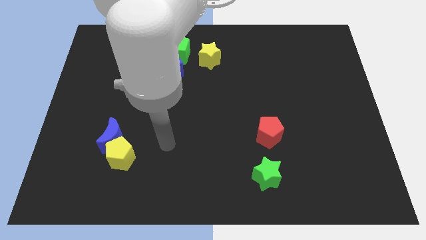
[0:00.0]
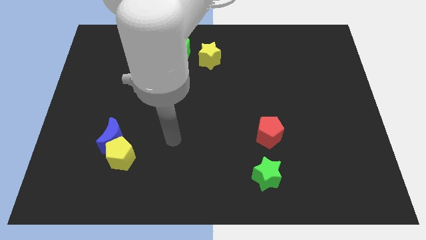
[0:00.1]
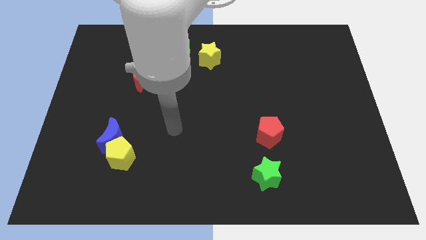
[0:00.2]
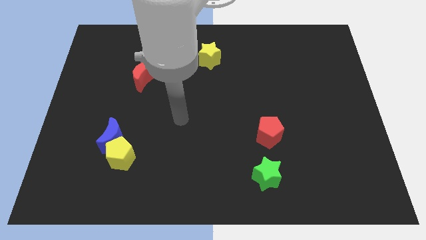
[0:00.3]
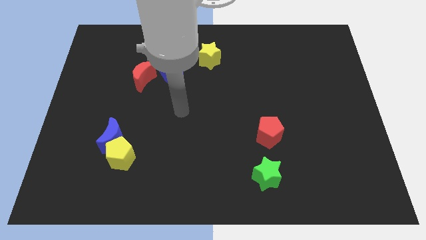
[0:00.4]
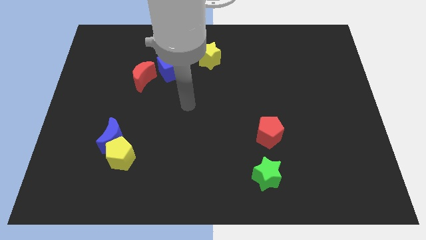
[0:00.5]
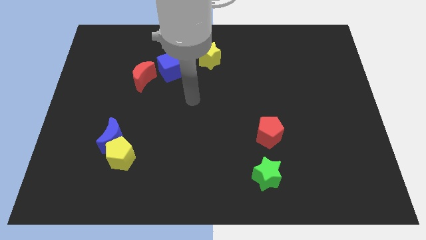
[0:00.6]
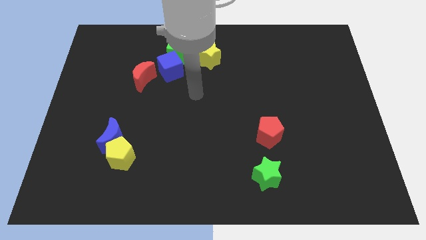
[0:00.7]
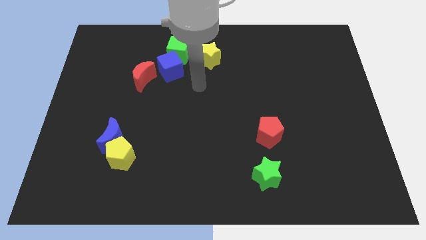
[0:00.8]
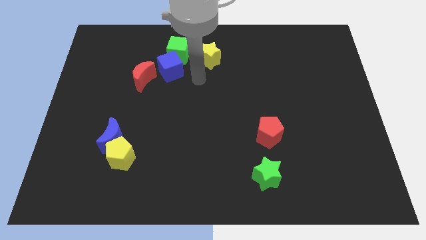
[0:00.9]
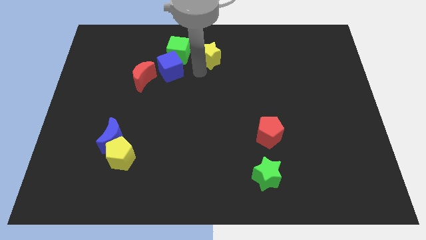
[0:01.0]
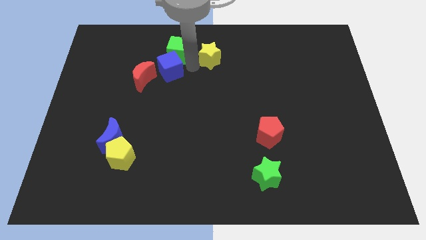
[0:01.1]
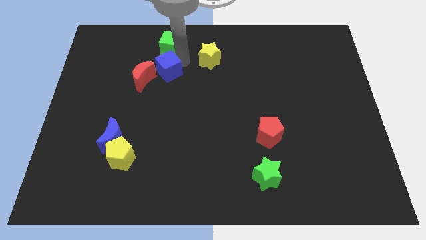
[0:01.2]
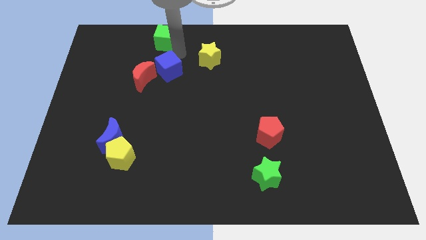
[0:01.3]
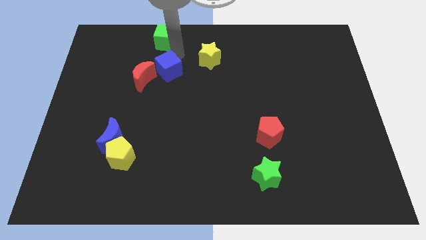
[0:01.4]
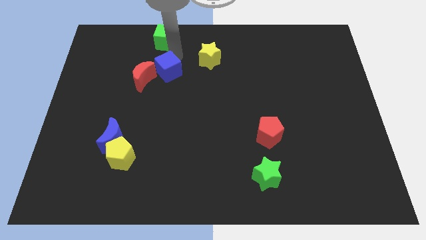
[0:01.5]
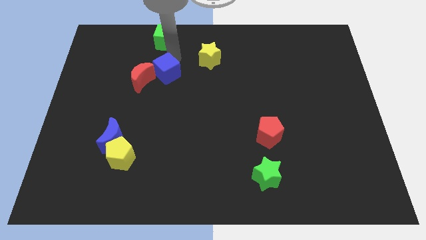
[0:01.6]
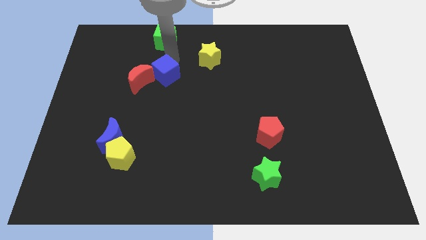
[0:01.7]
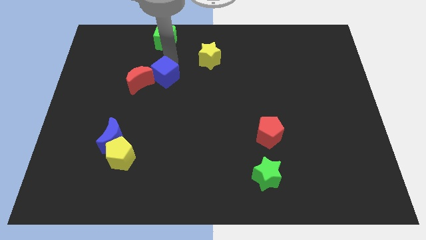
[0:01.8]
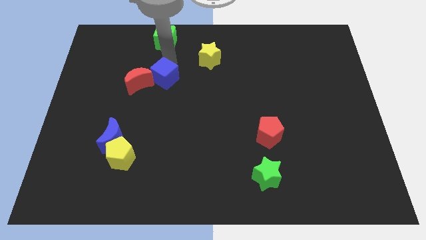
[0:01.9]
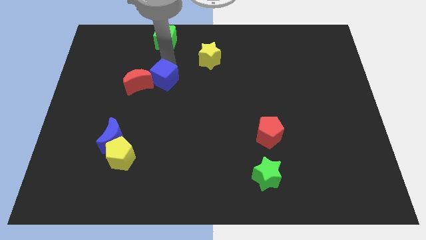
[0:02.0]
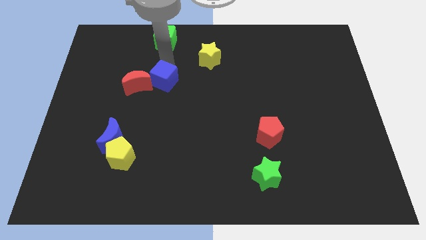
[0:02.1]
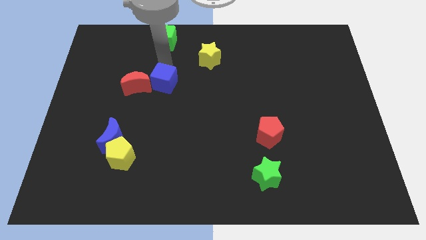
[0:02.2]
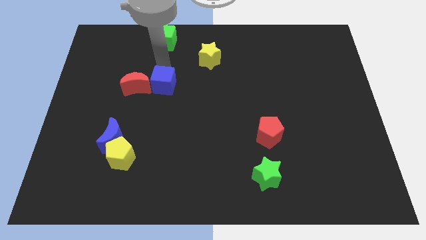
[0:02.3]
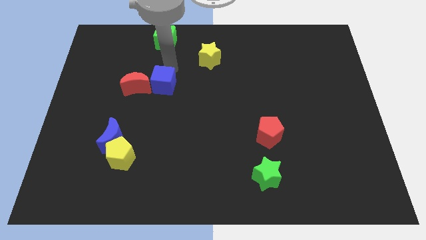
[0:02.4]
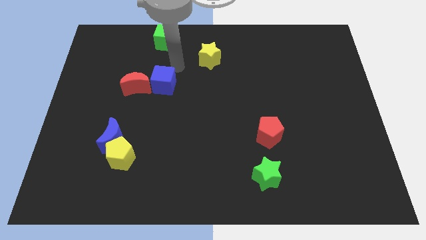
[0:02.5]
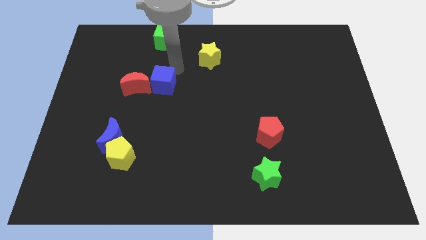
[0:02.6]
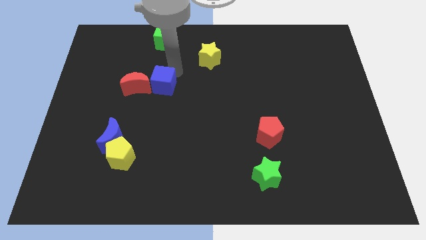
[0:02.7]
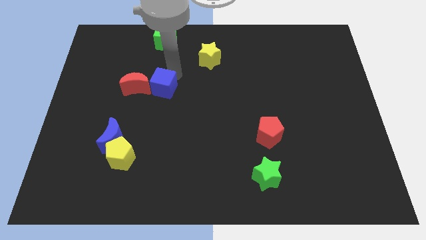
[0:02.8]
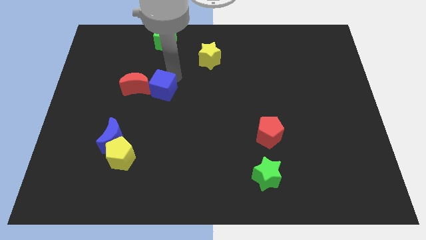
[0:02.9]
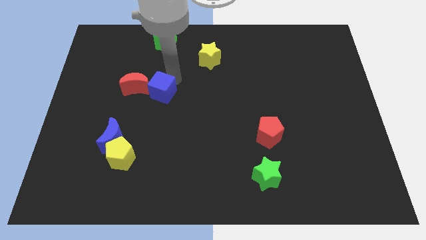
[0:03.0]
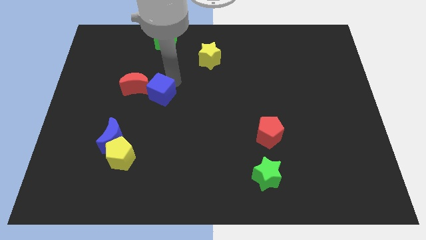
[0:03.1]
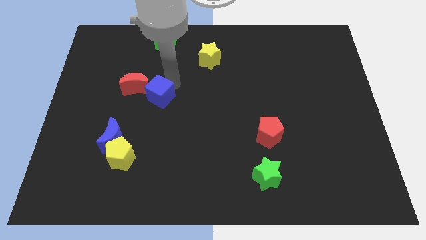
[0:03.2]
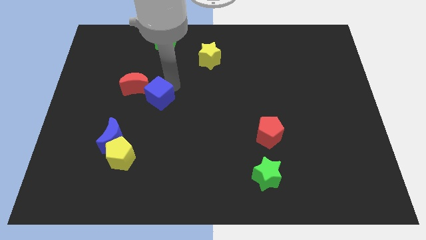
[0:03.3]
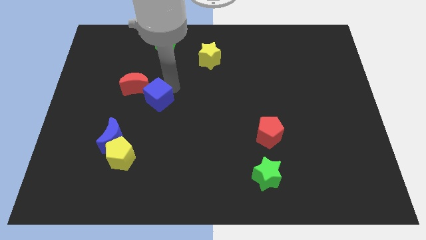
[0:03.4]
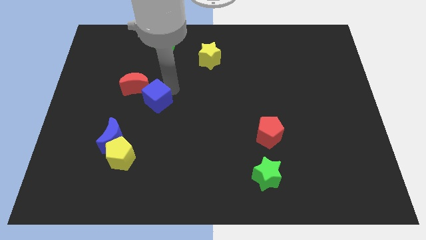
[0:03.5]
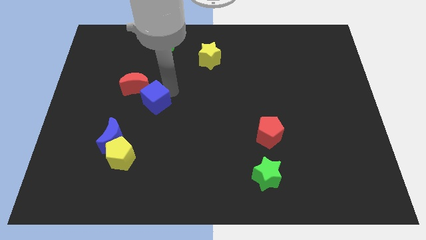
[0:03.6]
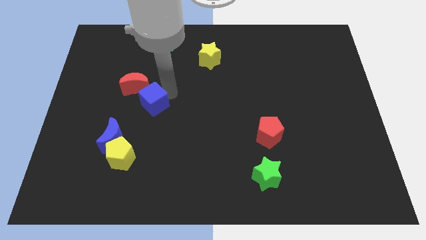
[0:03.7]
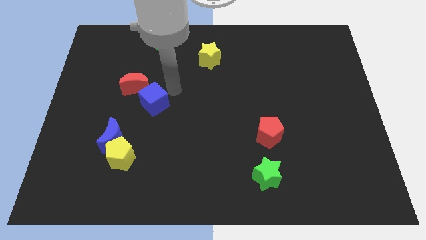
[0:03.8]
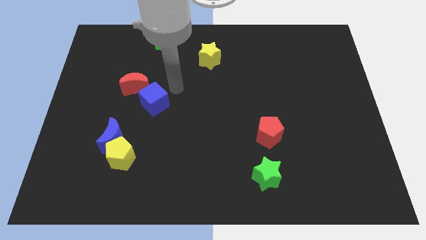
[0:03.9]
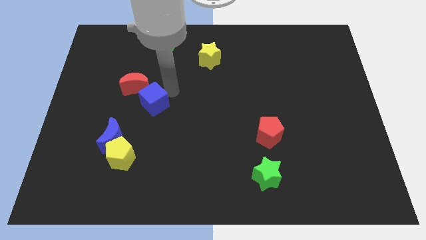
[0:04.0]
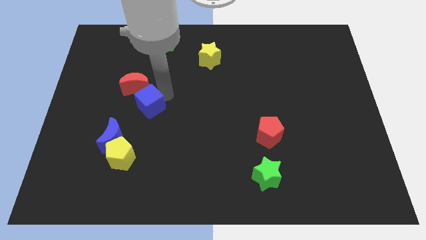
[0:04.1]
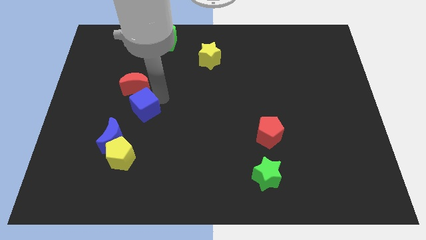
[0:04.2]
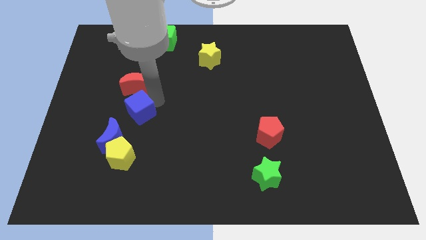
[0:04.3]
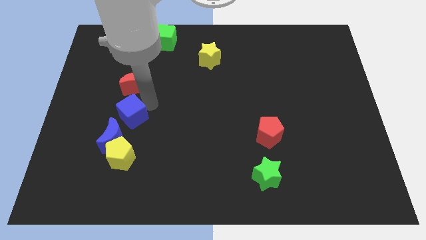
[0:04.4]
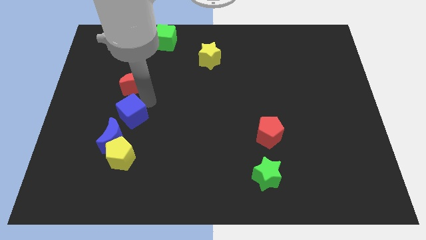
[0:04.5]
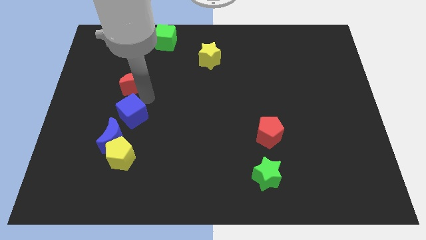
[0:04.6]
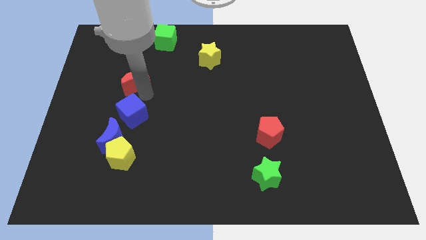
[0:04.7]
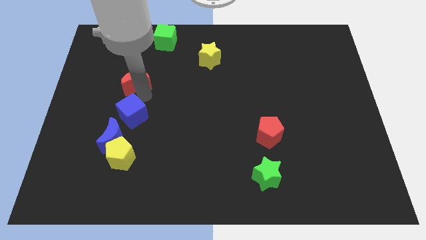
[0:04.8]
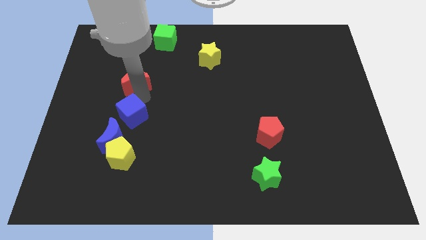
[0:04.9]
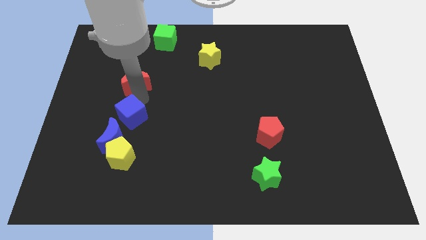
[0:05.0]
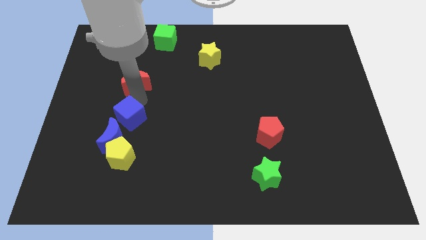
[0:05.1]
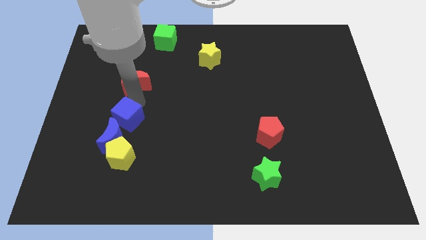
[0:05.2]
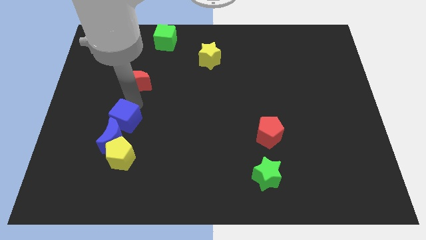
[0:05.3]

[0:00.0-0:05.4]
slide the blue cube to the blue moon

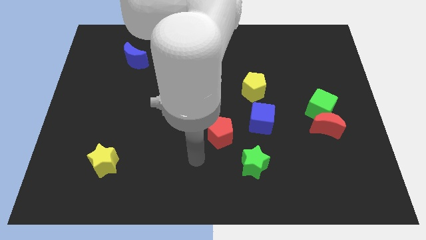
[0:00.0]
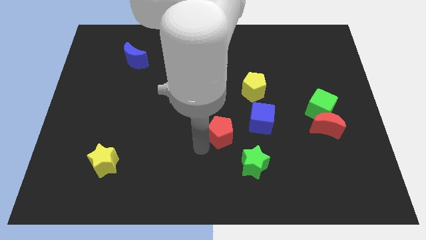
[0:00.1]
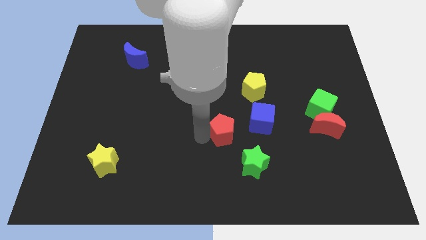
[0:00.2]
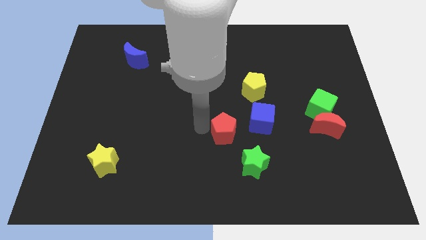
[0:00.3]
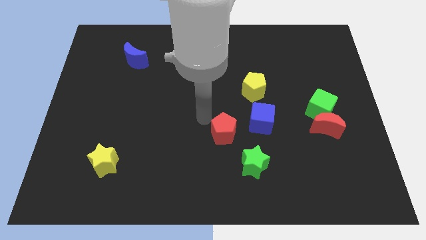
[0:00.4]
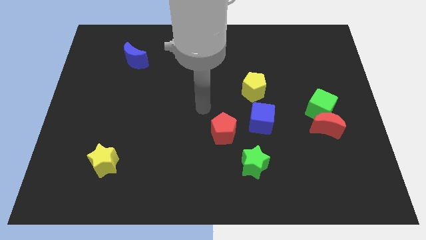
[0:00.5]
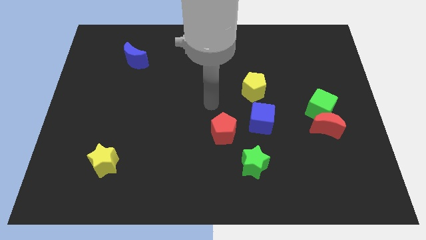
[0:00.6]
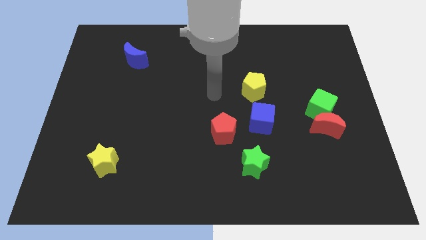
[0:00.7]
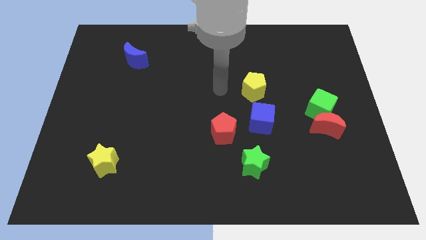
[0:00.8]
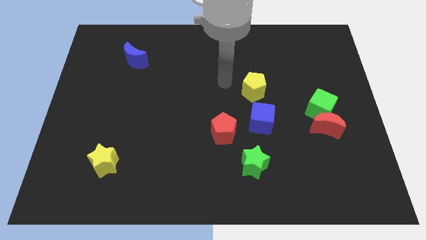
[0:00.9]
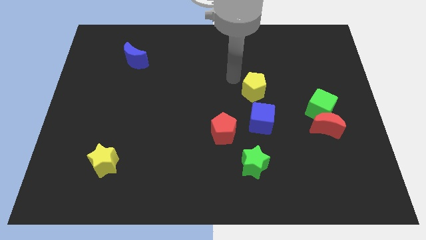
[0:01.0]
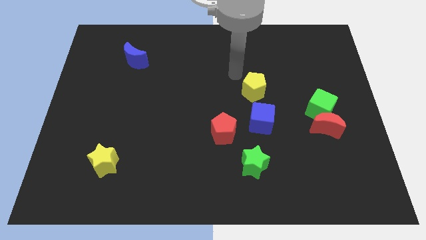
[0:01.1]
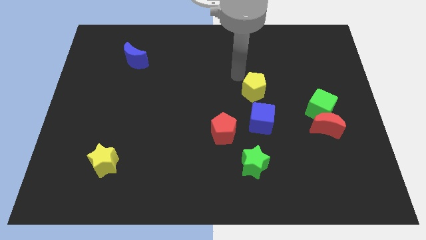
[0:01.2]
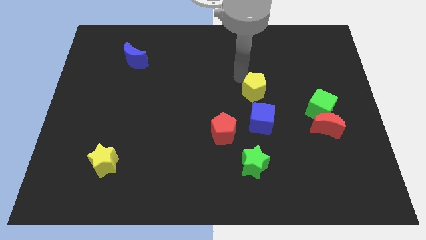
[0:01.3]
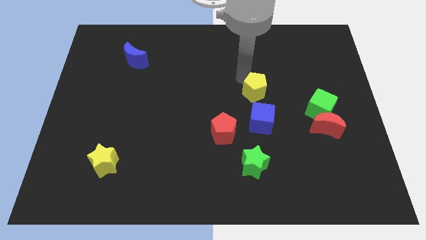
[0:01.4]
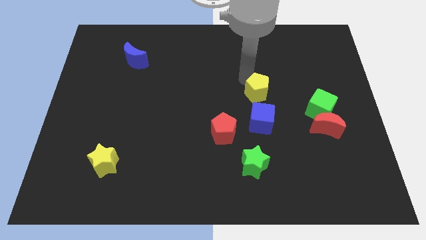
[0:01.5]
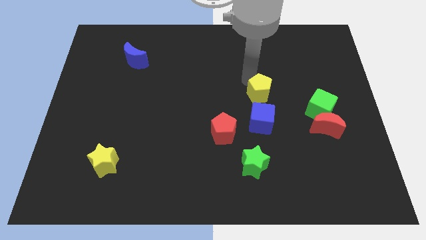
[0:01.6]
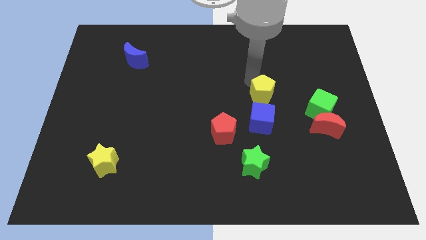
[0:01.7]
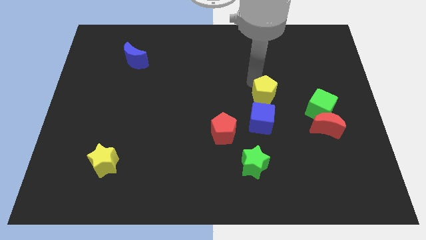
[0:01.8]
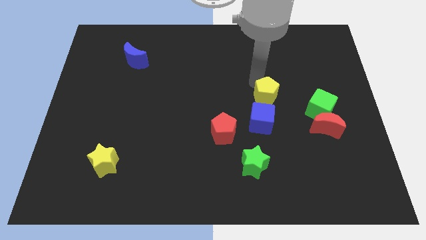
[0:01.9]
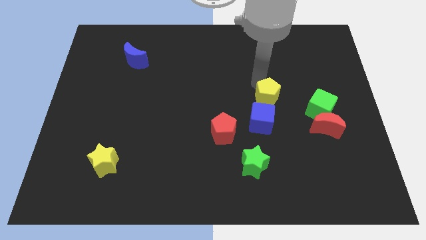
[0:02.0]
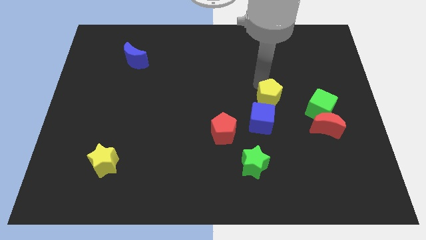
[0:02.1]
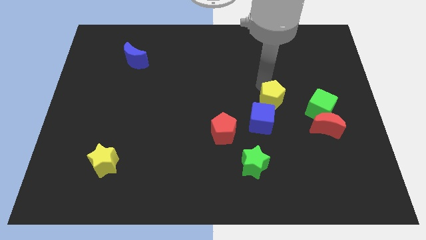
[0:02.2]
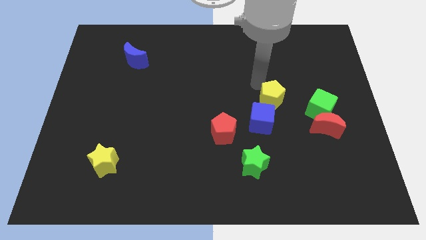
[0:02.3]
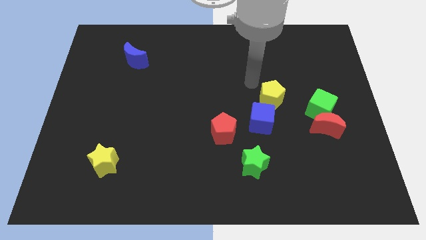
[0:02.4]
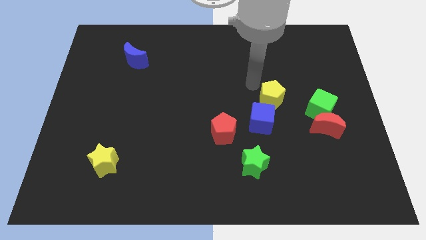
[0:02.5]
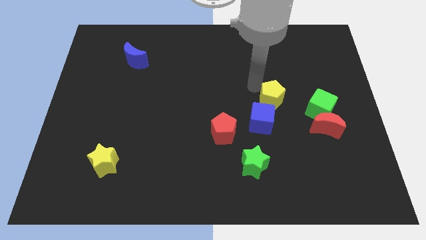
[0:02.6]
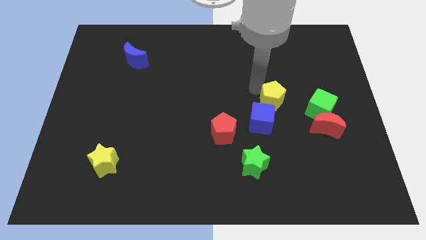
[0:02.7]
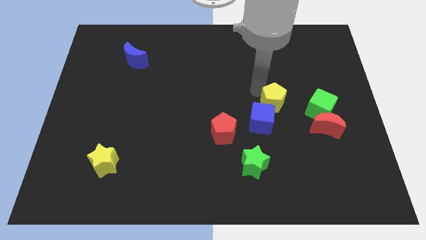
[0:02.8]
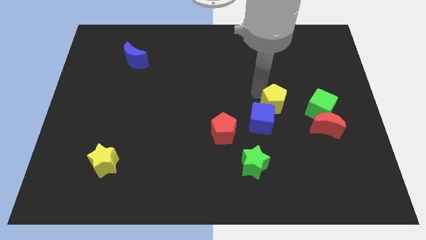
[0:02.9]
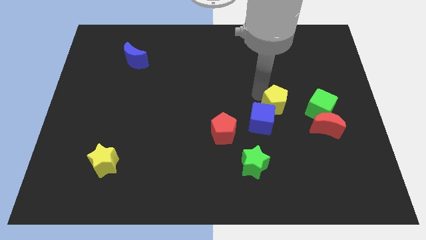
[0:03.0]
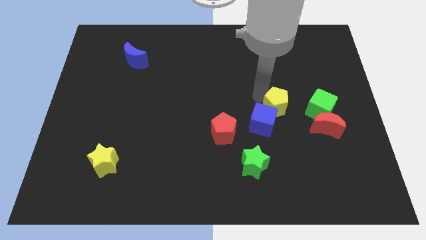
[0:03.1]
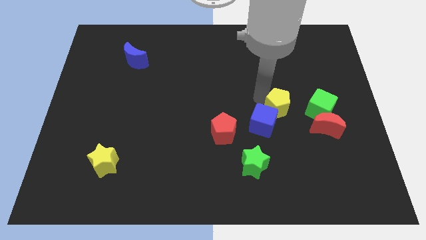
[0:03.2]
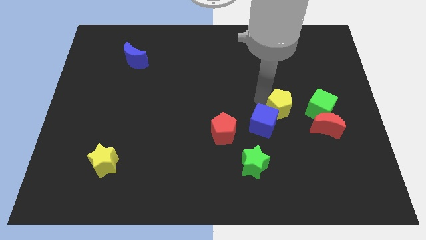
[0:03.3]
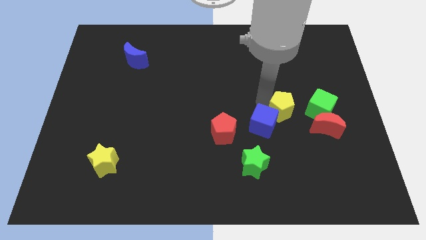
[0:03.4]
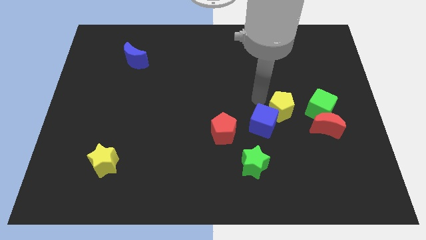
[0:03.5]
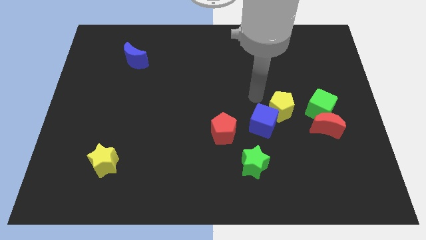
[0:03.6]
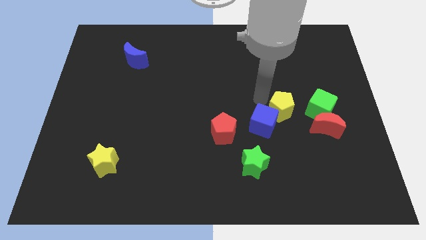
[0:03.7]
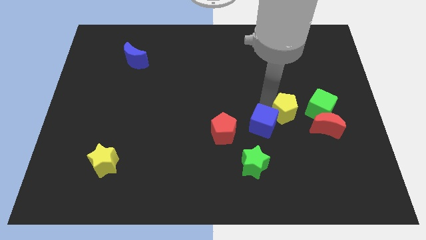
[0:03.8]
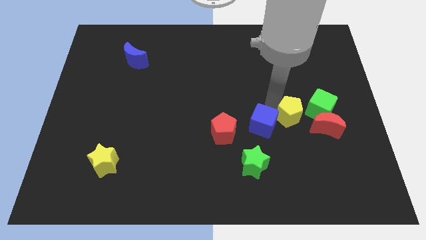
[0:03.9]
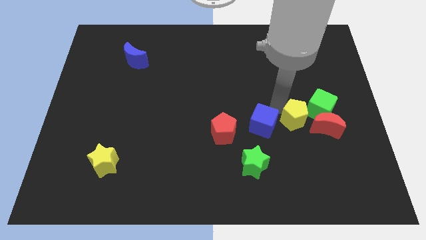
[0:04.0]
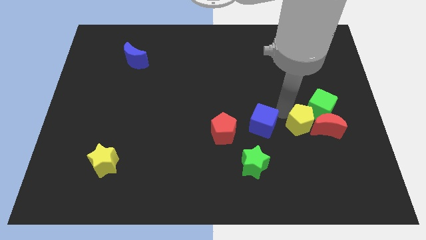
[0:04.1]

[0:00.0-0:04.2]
push the yellow pentagon to the red moon
